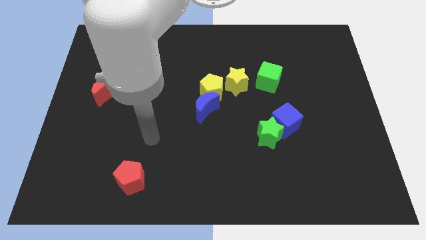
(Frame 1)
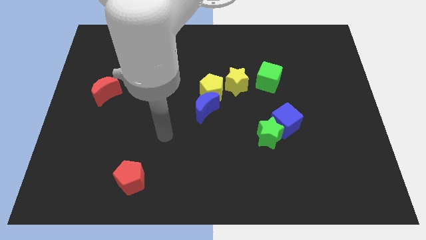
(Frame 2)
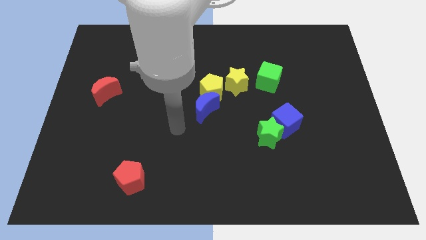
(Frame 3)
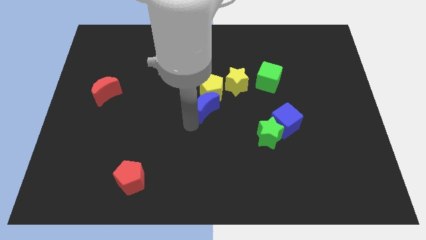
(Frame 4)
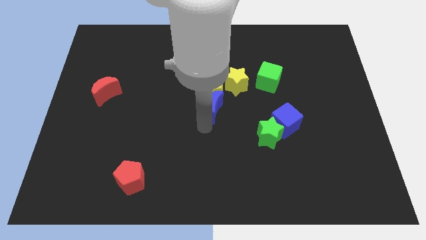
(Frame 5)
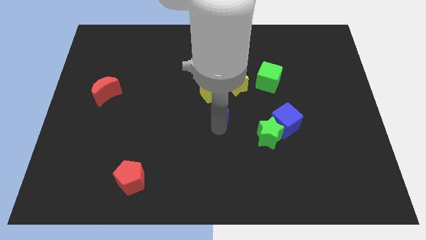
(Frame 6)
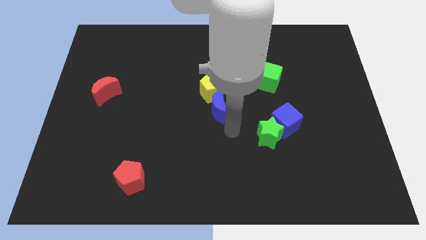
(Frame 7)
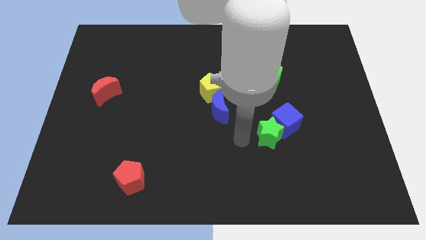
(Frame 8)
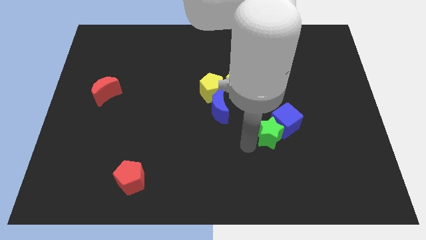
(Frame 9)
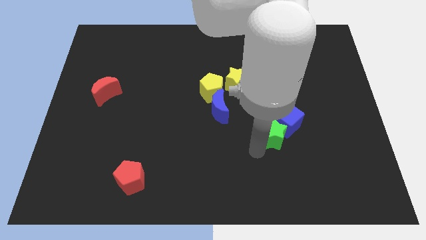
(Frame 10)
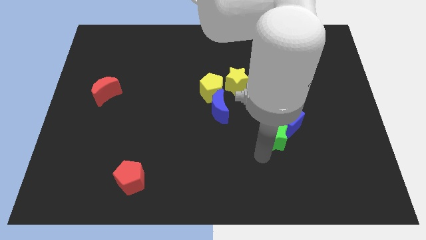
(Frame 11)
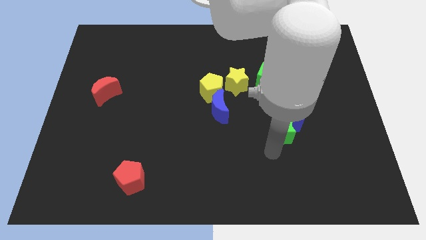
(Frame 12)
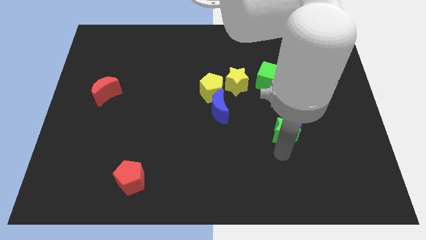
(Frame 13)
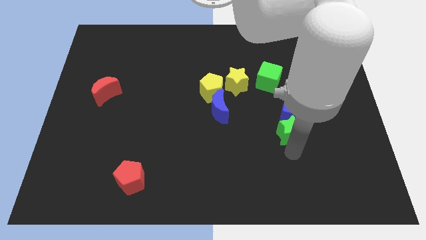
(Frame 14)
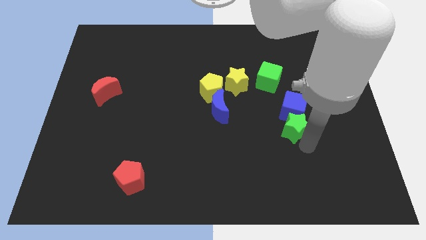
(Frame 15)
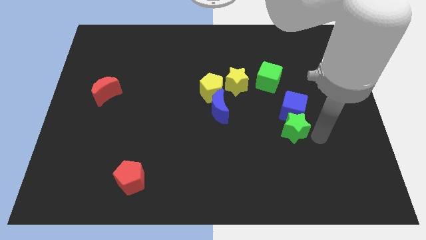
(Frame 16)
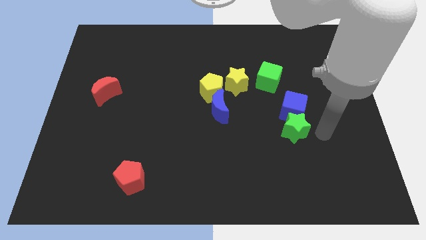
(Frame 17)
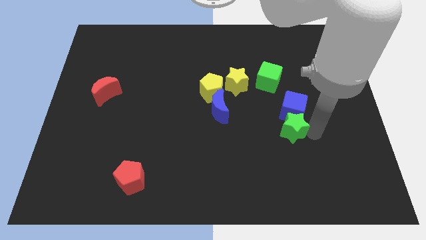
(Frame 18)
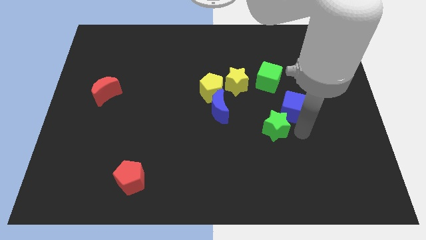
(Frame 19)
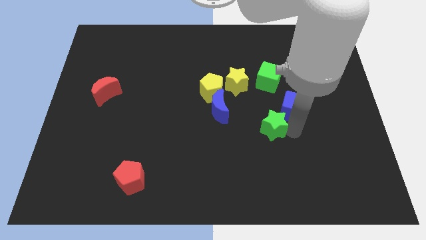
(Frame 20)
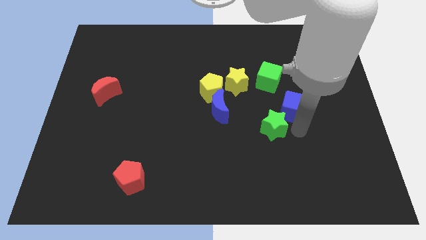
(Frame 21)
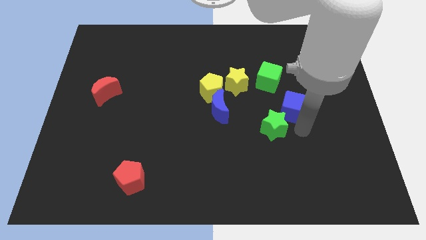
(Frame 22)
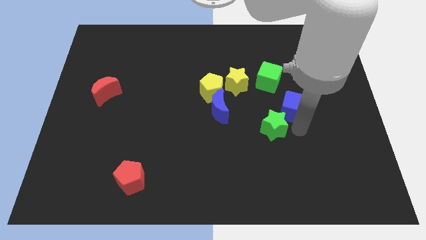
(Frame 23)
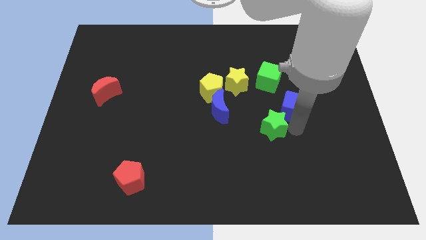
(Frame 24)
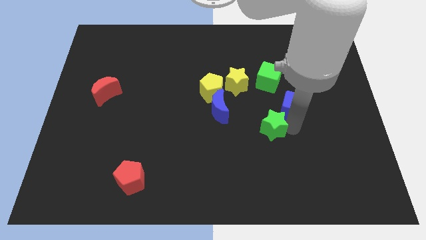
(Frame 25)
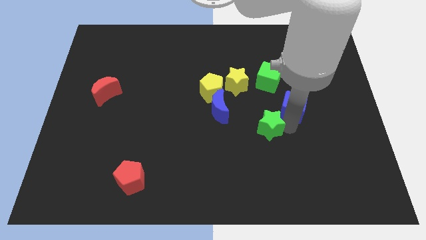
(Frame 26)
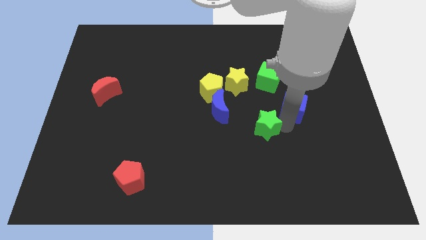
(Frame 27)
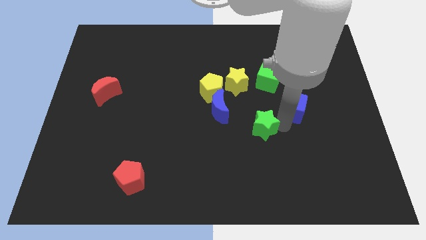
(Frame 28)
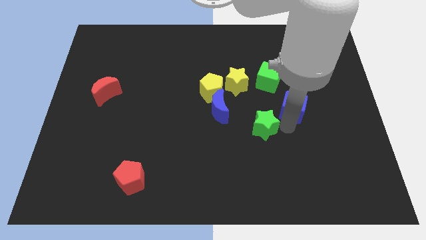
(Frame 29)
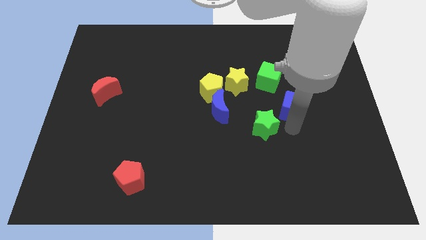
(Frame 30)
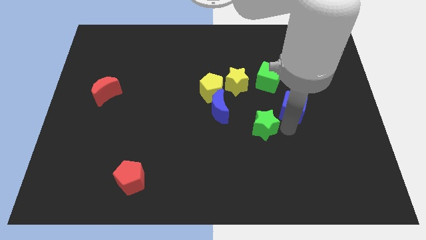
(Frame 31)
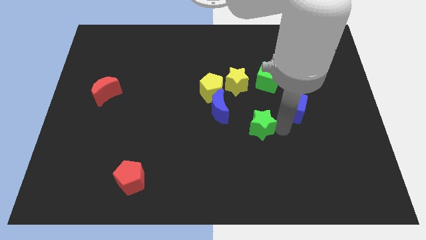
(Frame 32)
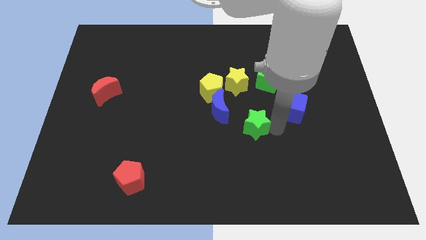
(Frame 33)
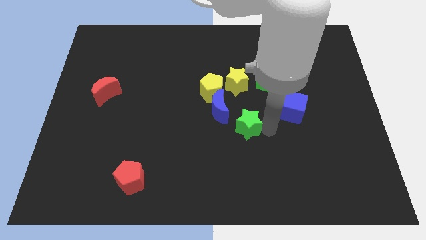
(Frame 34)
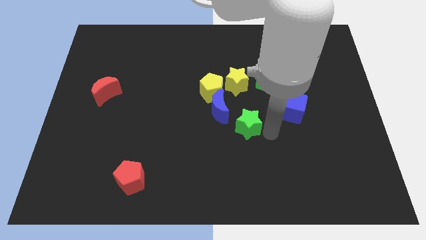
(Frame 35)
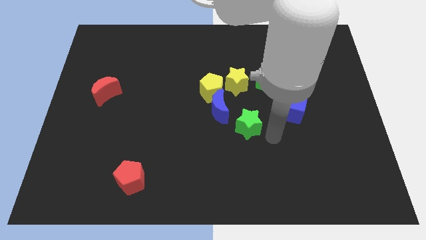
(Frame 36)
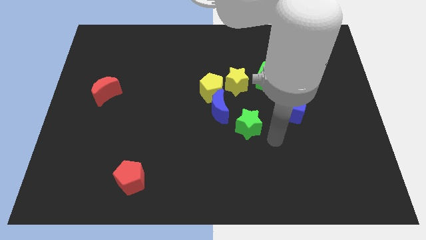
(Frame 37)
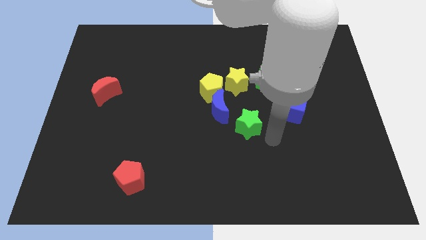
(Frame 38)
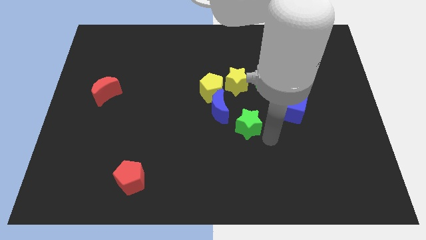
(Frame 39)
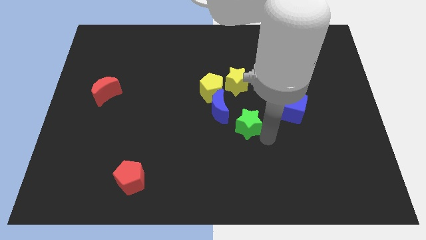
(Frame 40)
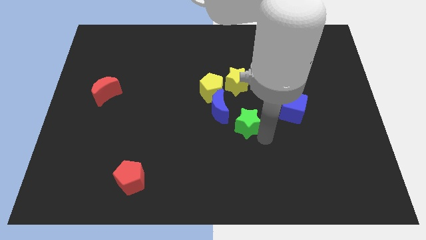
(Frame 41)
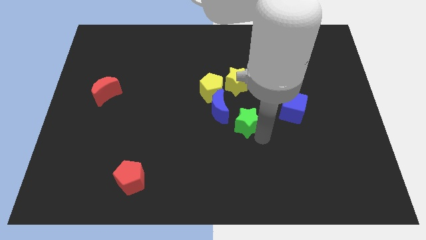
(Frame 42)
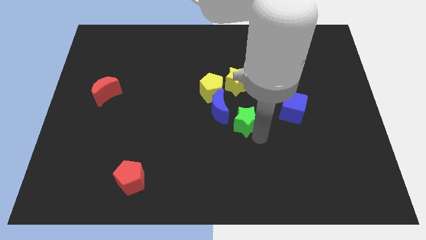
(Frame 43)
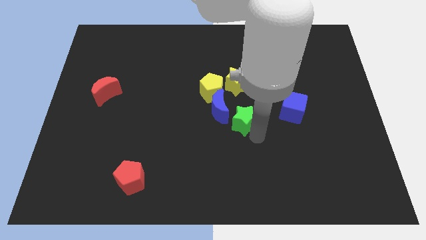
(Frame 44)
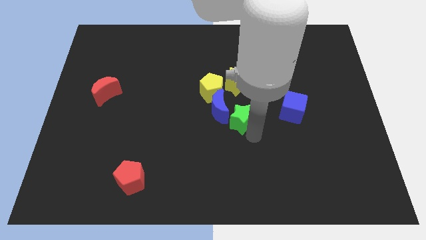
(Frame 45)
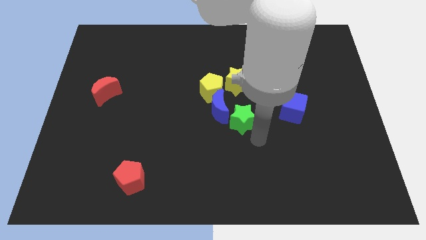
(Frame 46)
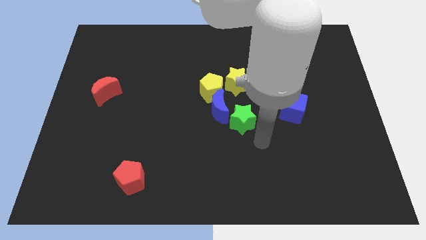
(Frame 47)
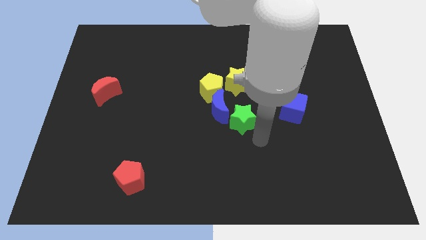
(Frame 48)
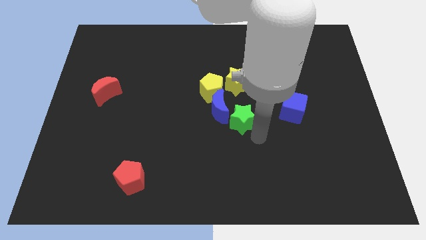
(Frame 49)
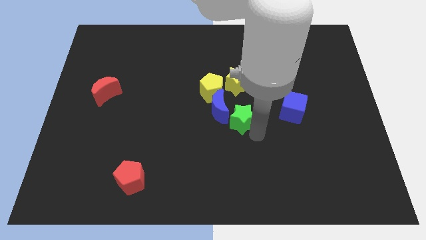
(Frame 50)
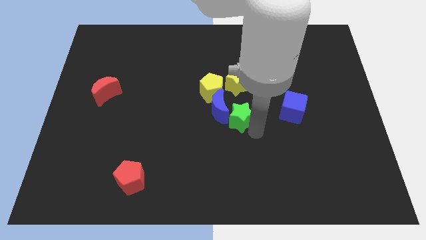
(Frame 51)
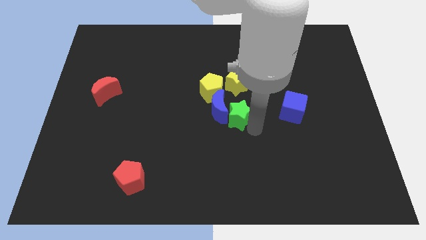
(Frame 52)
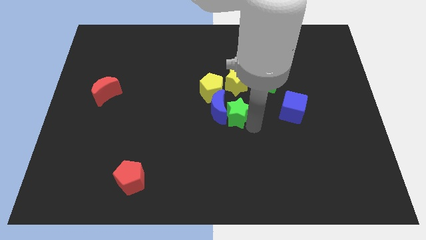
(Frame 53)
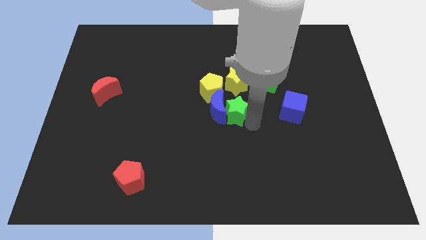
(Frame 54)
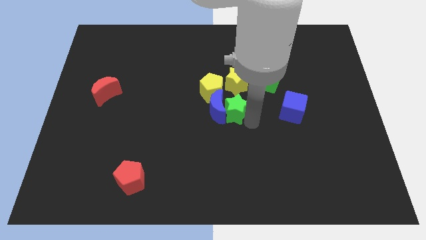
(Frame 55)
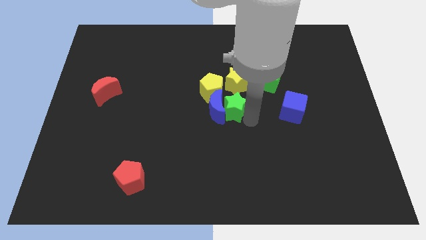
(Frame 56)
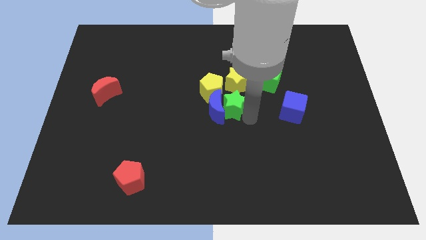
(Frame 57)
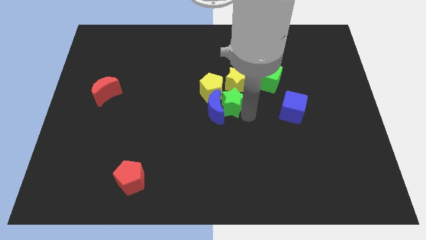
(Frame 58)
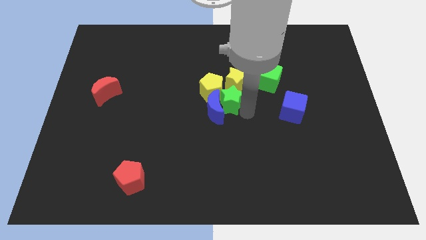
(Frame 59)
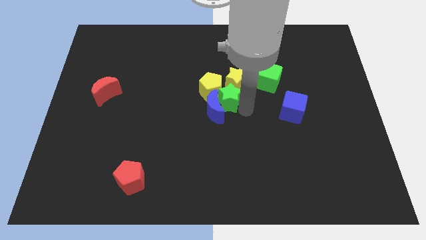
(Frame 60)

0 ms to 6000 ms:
move the green star next to the yellow pentagon
